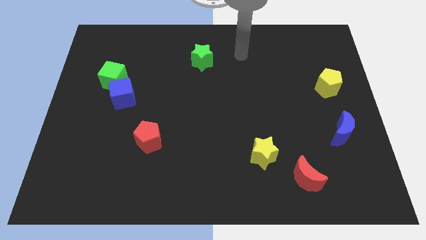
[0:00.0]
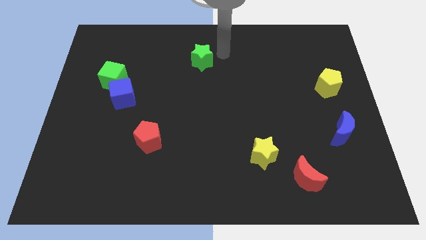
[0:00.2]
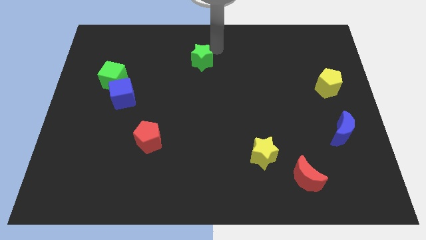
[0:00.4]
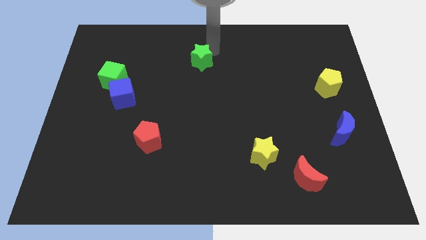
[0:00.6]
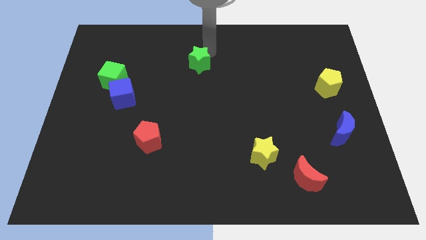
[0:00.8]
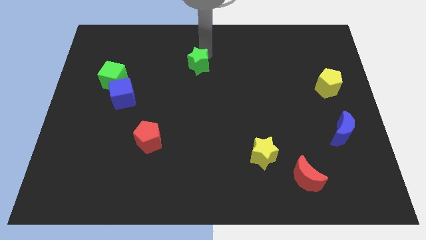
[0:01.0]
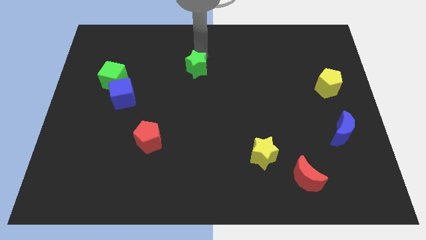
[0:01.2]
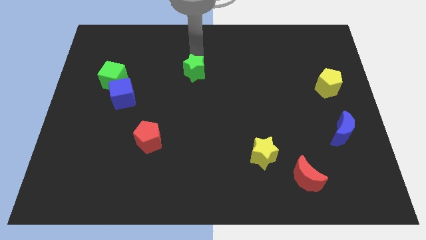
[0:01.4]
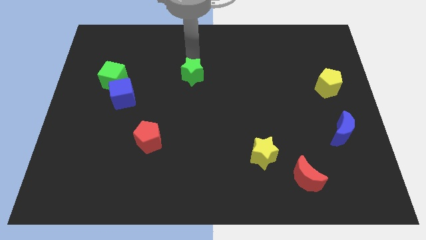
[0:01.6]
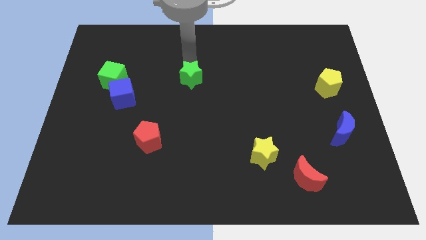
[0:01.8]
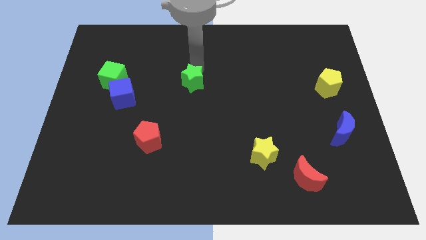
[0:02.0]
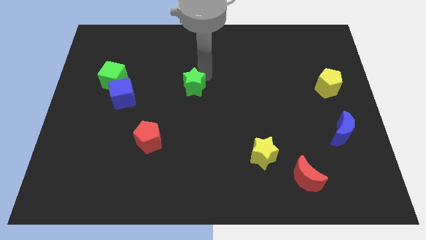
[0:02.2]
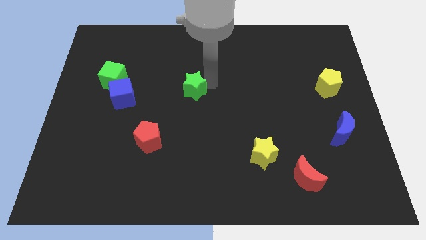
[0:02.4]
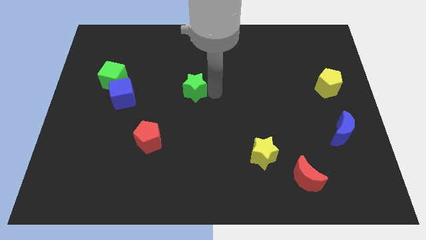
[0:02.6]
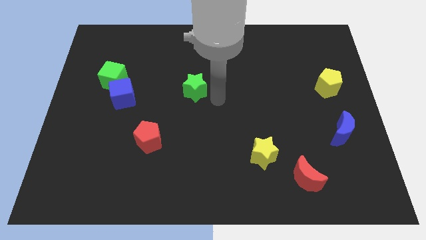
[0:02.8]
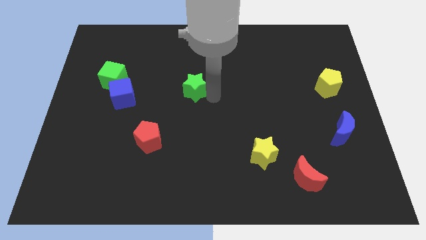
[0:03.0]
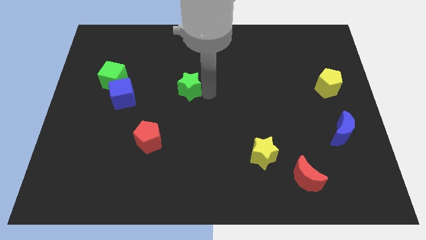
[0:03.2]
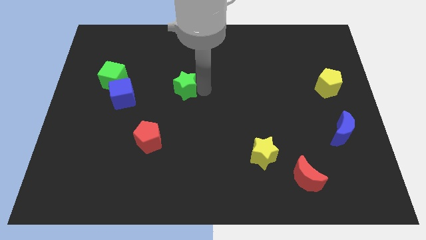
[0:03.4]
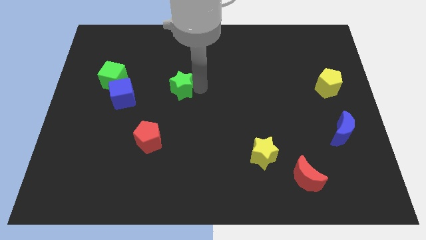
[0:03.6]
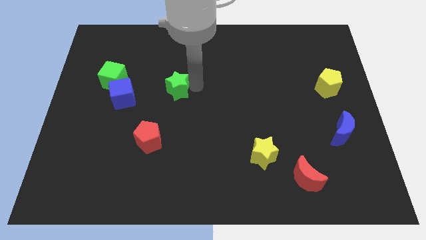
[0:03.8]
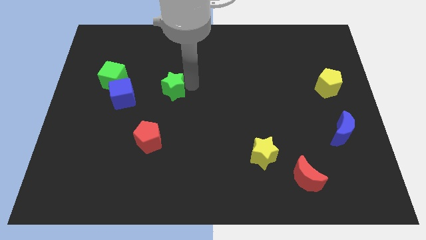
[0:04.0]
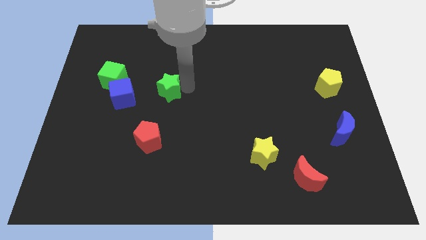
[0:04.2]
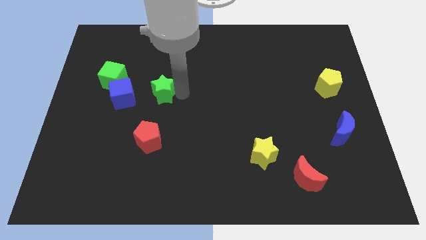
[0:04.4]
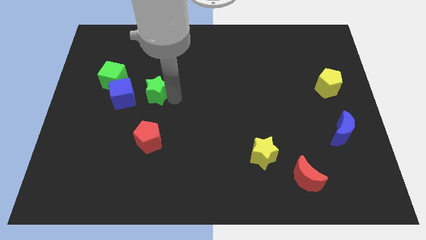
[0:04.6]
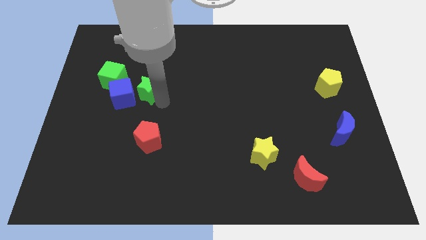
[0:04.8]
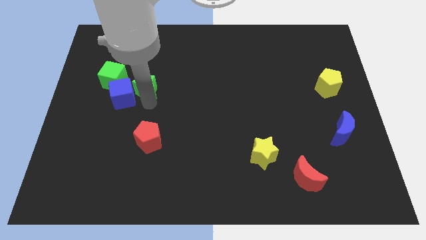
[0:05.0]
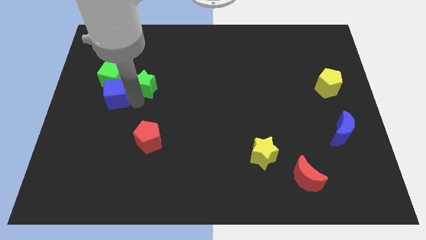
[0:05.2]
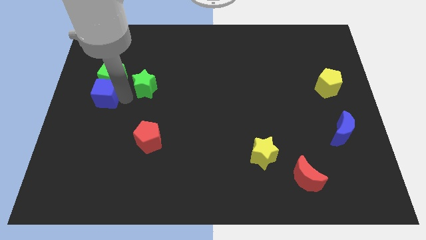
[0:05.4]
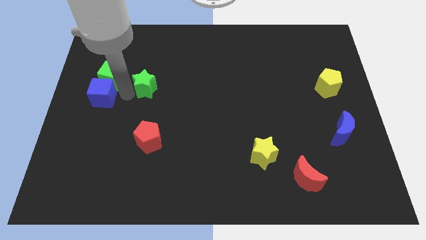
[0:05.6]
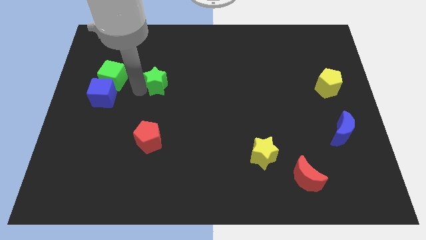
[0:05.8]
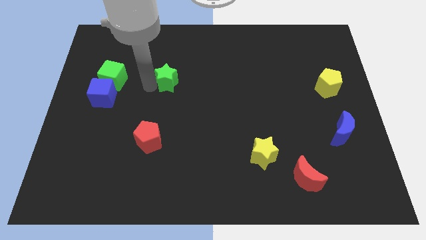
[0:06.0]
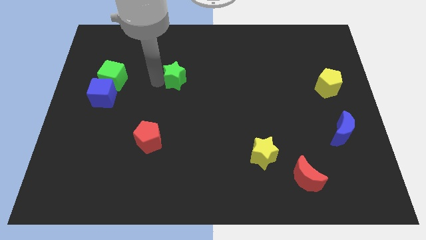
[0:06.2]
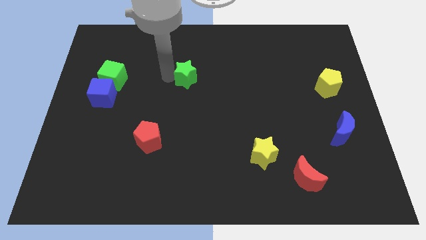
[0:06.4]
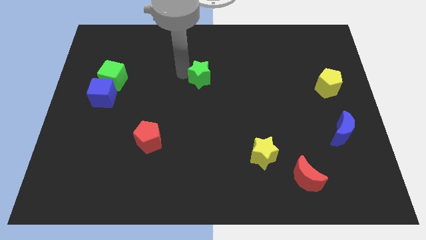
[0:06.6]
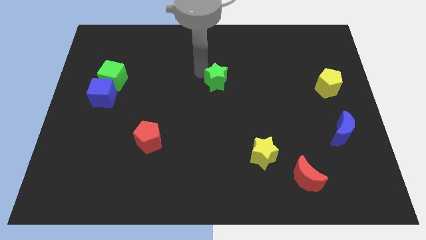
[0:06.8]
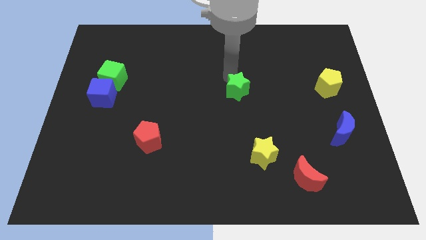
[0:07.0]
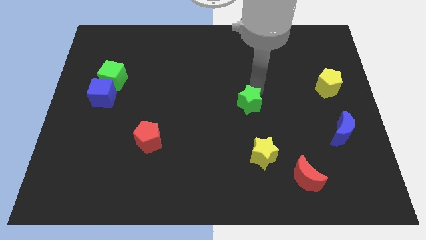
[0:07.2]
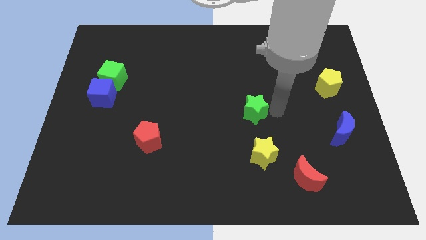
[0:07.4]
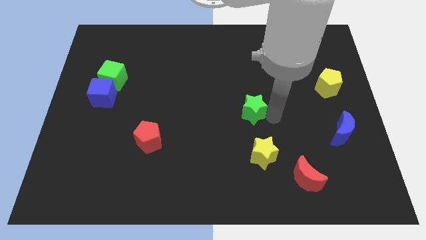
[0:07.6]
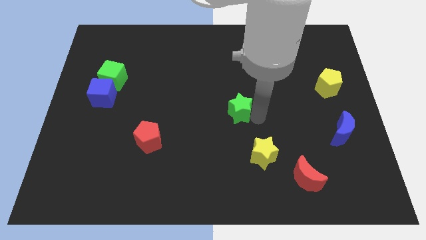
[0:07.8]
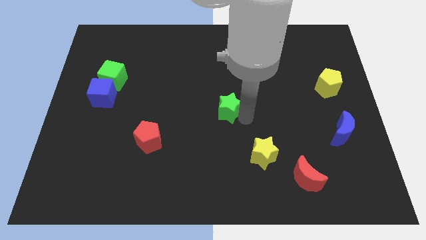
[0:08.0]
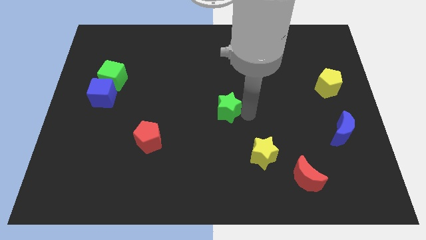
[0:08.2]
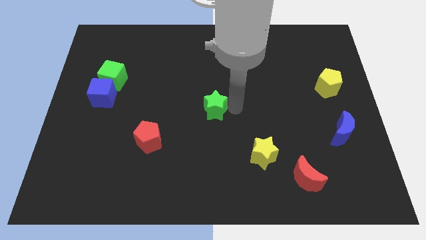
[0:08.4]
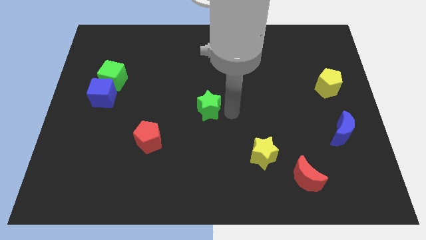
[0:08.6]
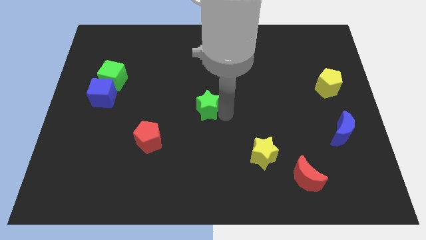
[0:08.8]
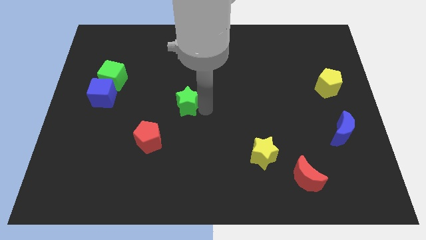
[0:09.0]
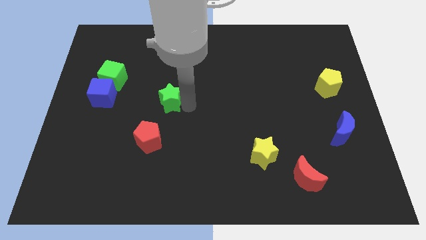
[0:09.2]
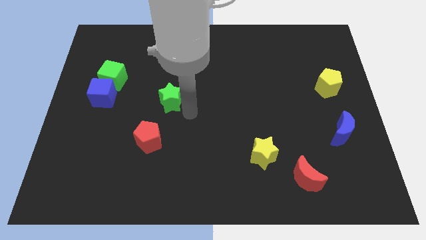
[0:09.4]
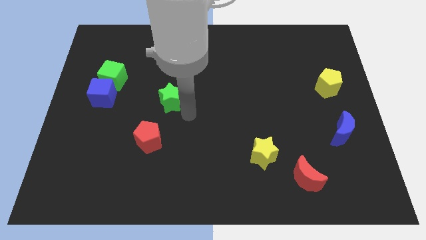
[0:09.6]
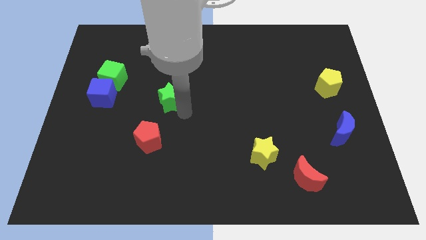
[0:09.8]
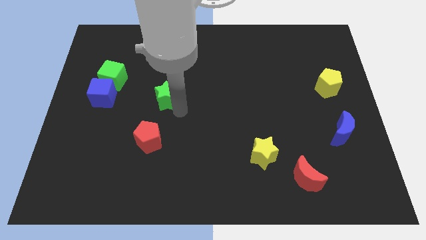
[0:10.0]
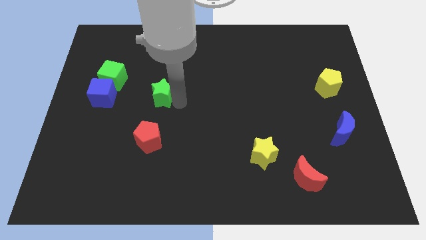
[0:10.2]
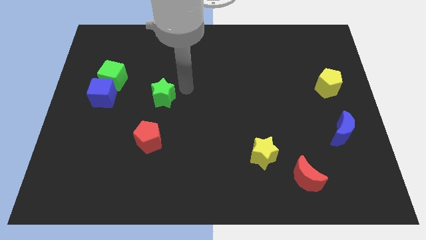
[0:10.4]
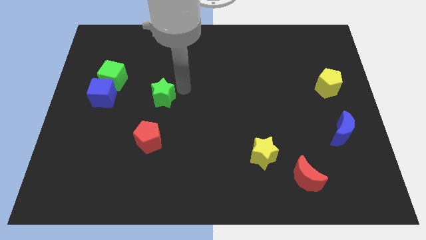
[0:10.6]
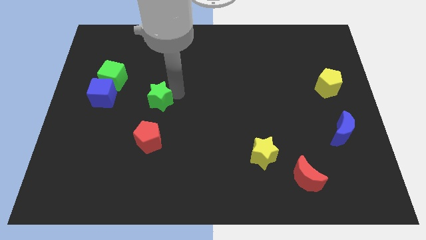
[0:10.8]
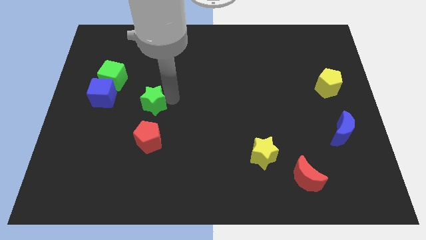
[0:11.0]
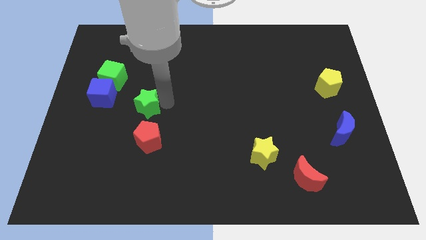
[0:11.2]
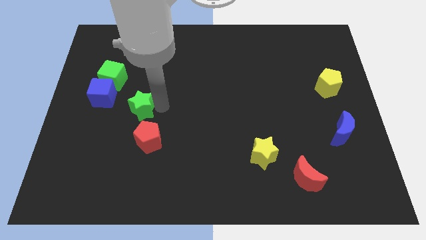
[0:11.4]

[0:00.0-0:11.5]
slide the green star diagonally down and to the right of the blue cube

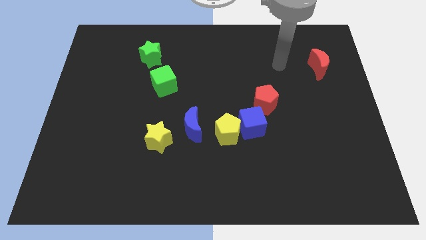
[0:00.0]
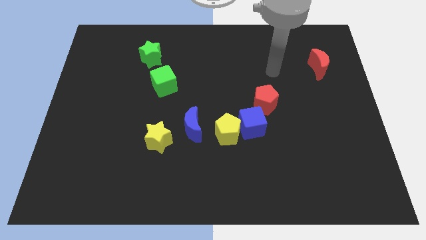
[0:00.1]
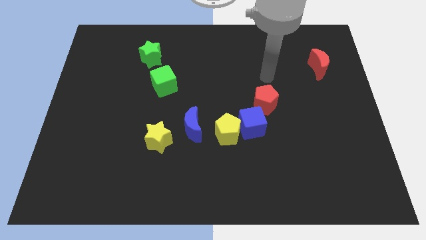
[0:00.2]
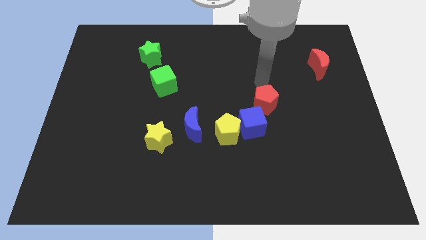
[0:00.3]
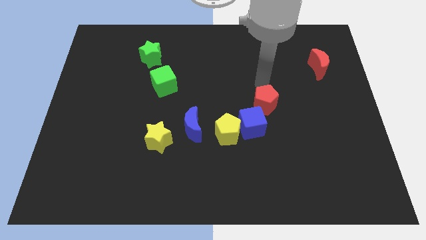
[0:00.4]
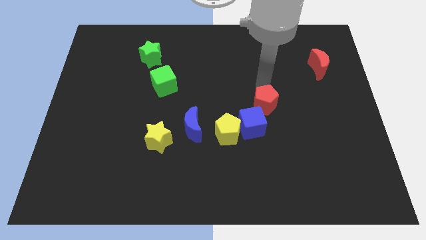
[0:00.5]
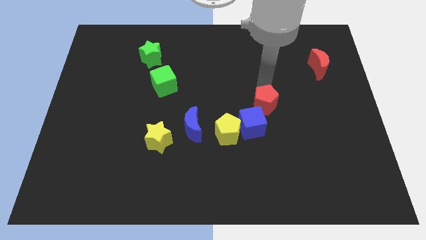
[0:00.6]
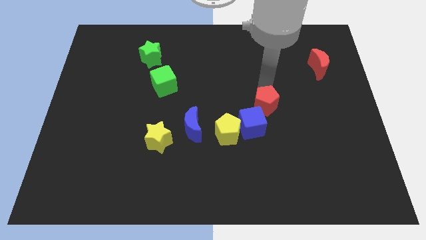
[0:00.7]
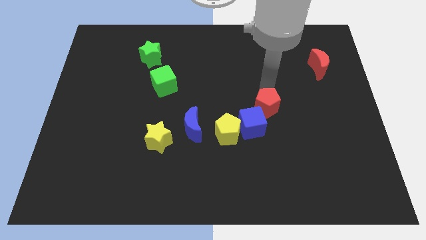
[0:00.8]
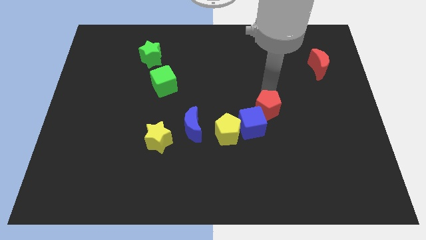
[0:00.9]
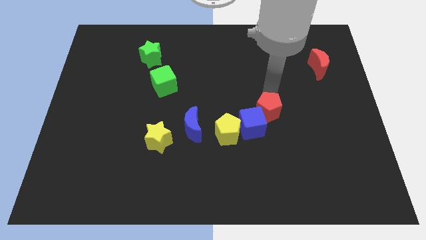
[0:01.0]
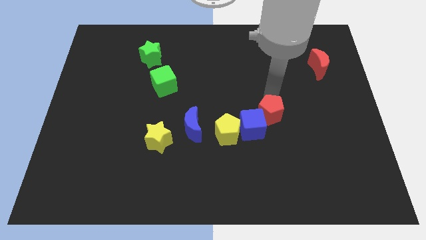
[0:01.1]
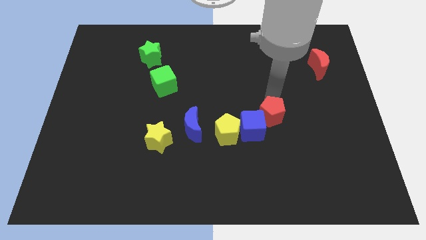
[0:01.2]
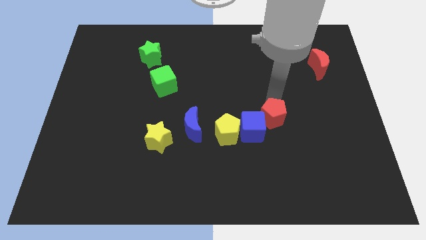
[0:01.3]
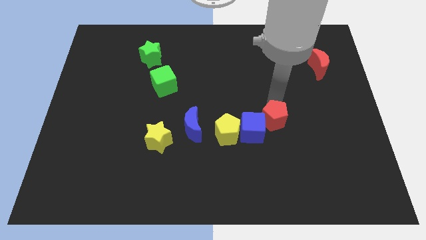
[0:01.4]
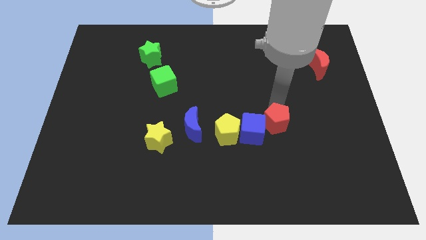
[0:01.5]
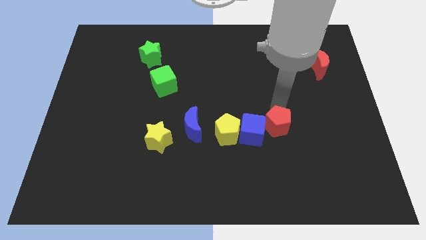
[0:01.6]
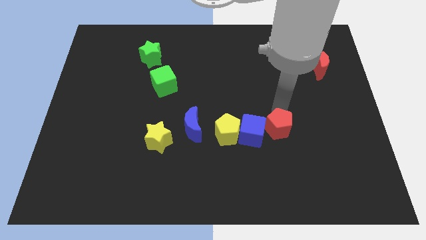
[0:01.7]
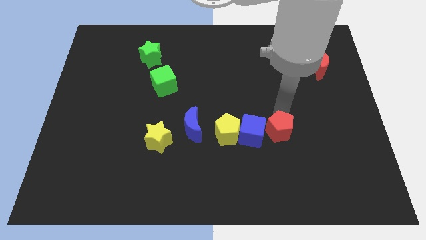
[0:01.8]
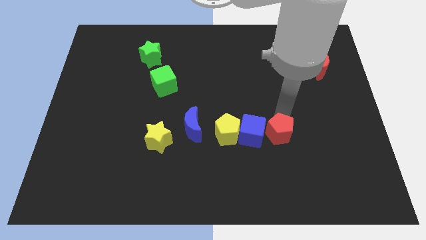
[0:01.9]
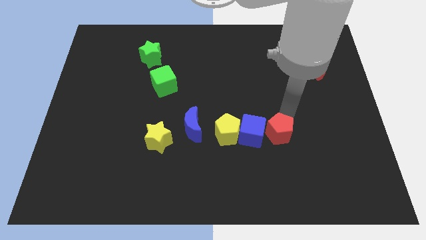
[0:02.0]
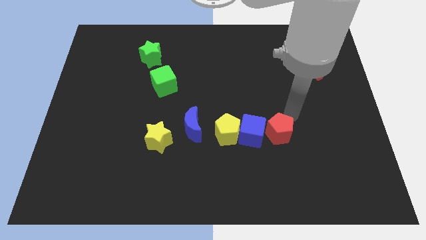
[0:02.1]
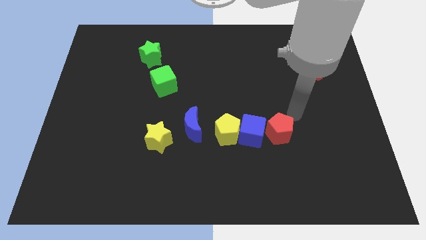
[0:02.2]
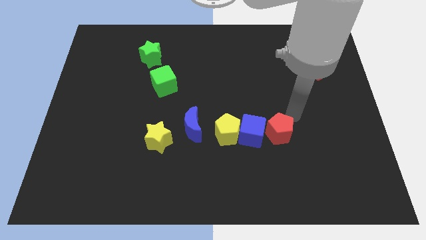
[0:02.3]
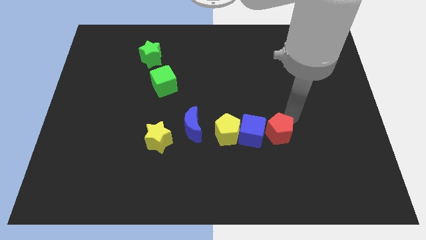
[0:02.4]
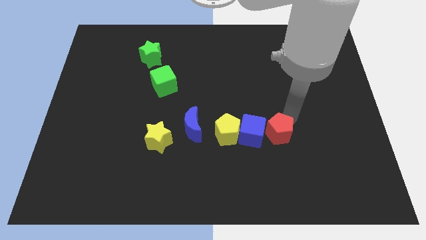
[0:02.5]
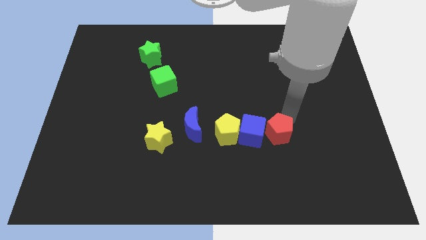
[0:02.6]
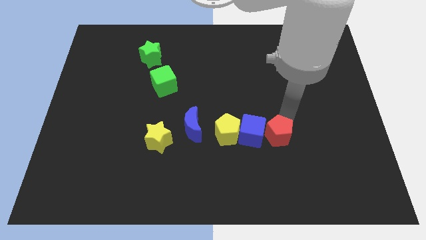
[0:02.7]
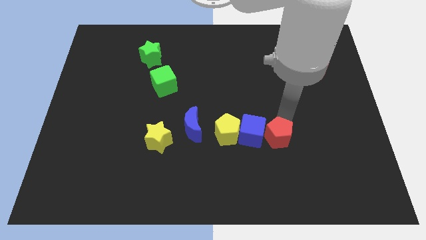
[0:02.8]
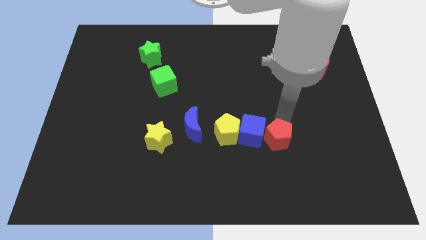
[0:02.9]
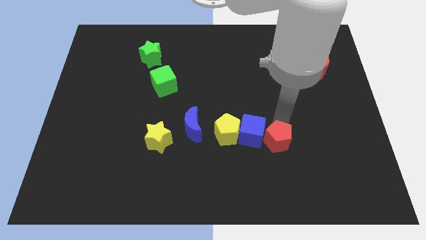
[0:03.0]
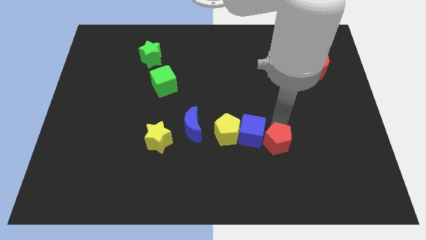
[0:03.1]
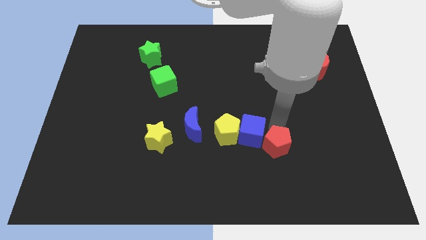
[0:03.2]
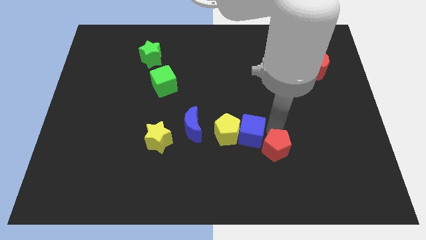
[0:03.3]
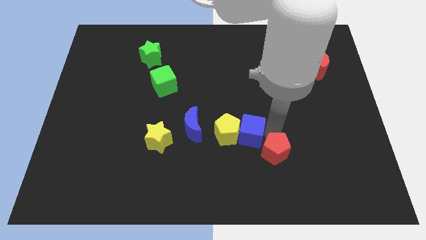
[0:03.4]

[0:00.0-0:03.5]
move the red pentagon to the bottom side of the blue cube
